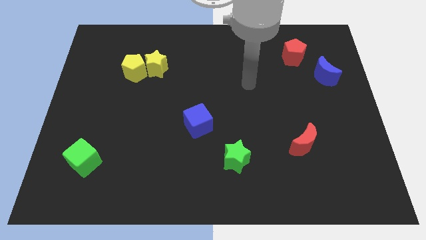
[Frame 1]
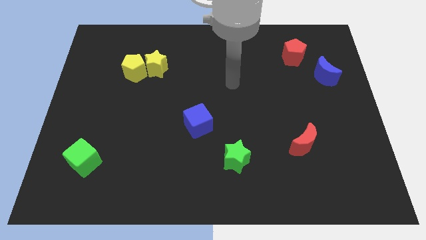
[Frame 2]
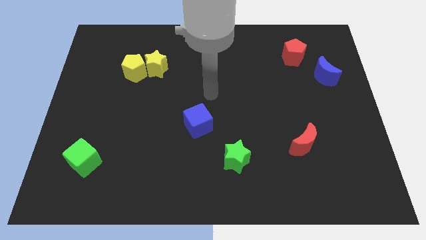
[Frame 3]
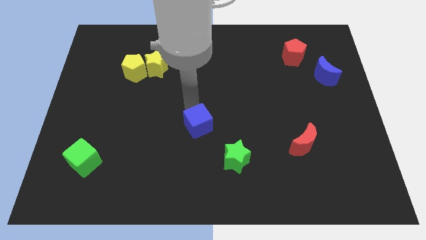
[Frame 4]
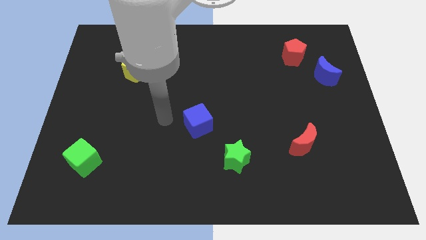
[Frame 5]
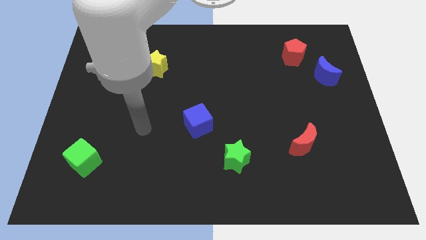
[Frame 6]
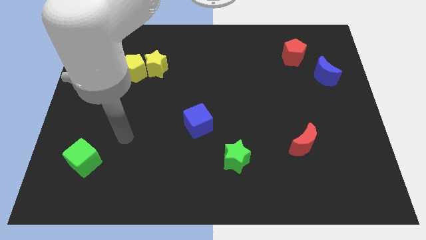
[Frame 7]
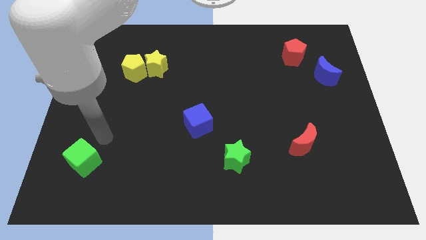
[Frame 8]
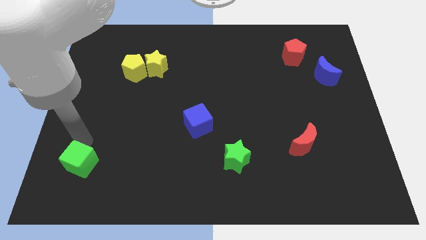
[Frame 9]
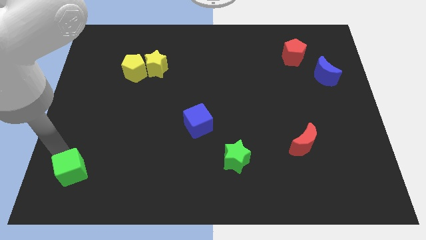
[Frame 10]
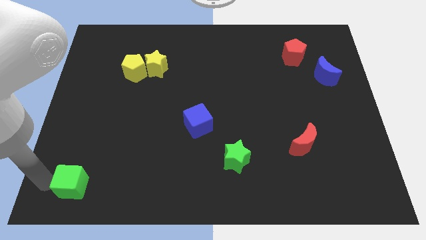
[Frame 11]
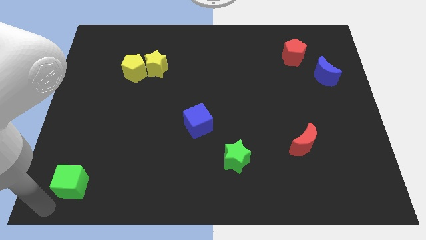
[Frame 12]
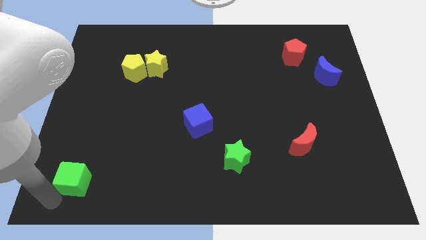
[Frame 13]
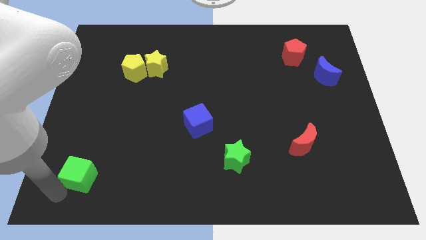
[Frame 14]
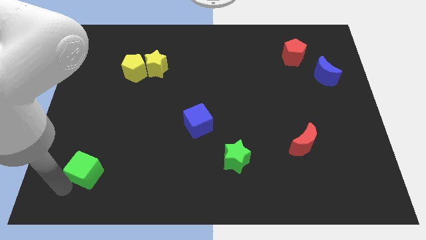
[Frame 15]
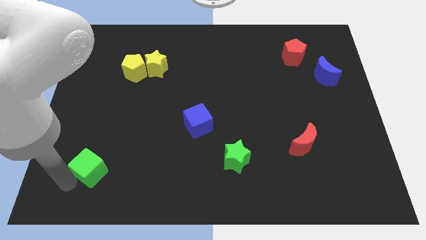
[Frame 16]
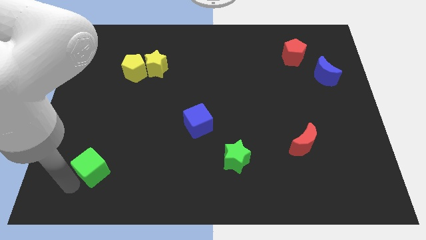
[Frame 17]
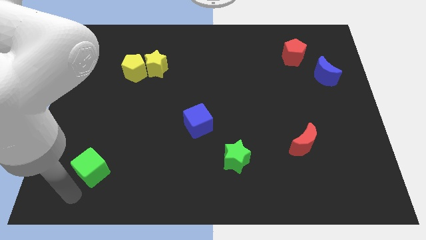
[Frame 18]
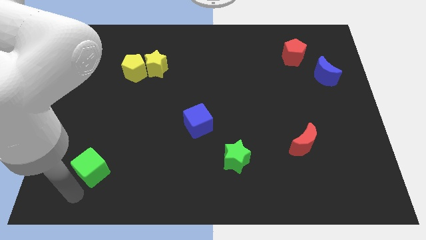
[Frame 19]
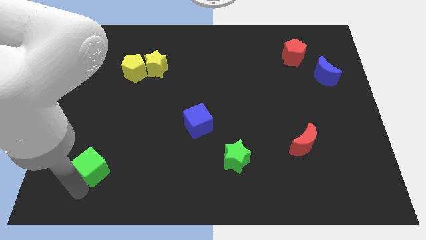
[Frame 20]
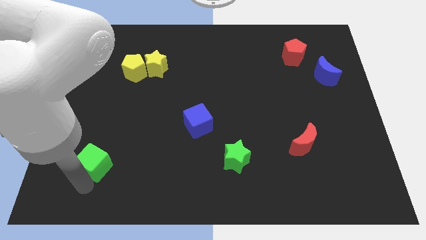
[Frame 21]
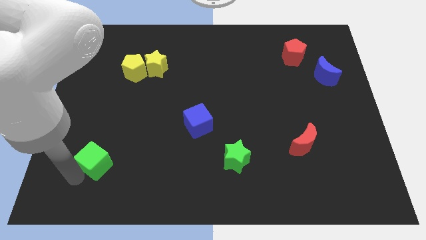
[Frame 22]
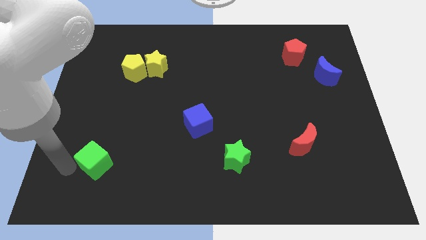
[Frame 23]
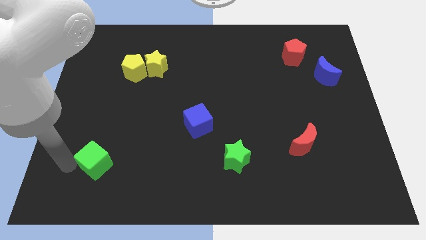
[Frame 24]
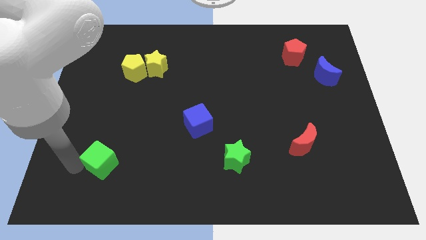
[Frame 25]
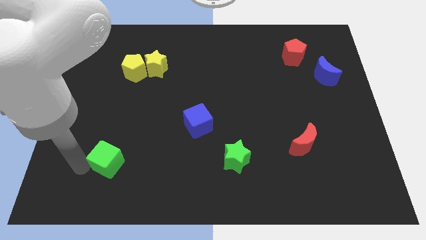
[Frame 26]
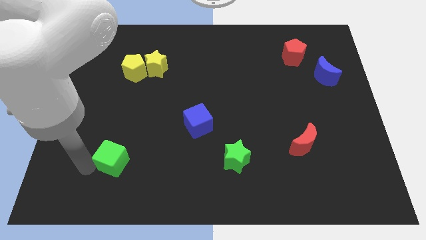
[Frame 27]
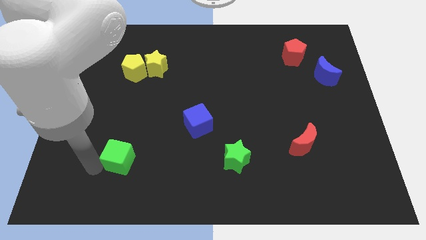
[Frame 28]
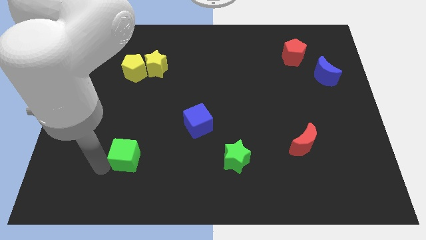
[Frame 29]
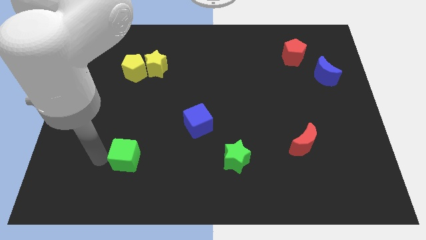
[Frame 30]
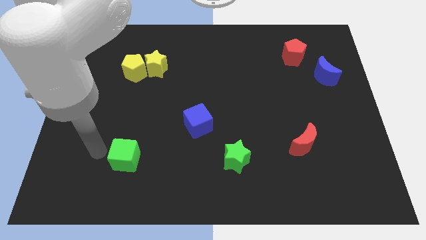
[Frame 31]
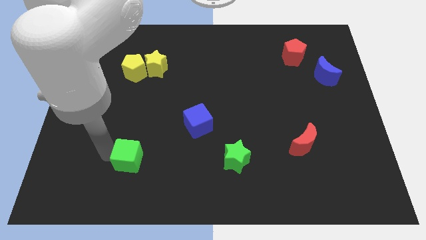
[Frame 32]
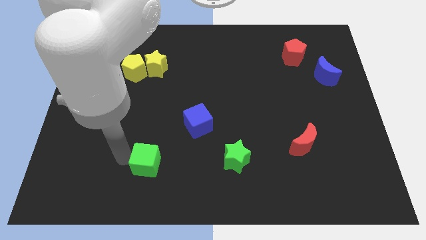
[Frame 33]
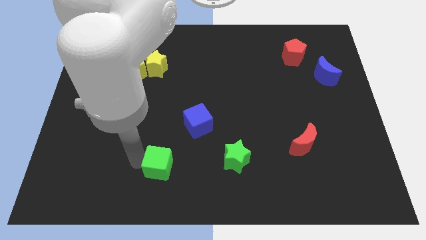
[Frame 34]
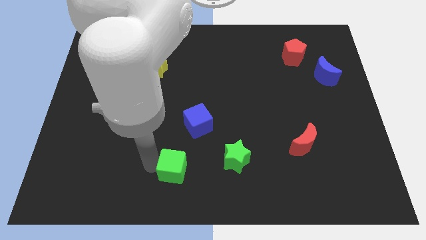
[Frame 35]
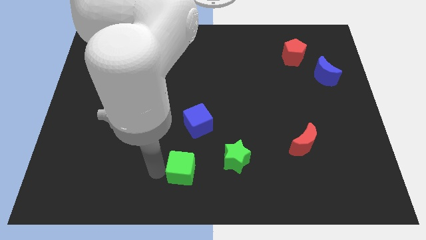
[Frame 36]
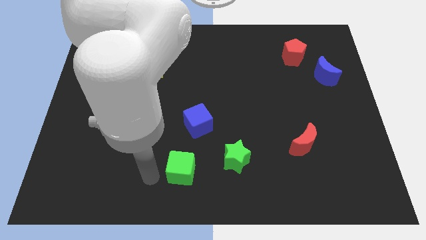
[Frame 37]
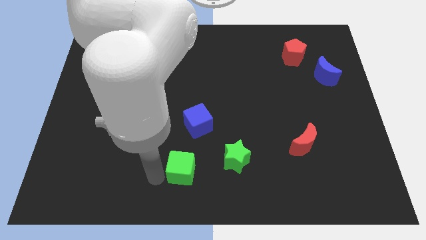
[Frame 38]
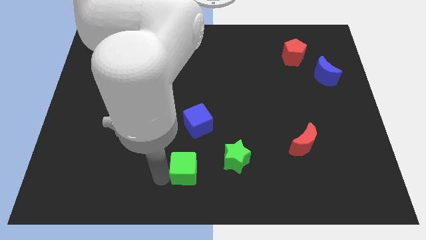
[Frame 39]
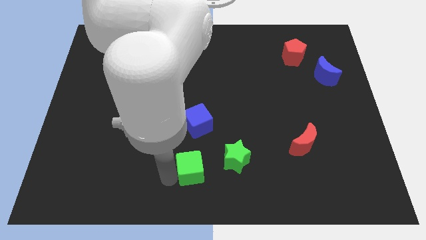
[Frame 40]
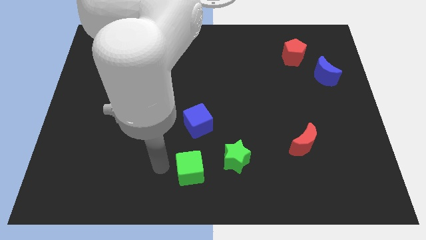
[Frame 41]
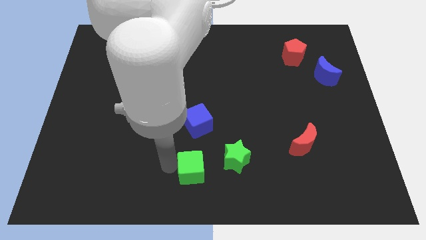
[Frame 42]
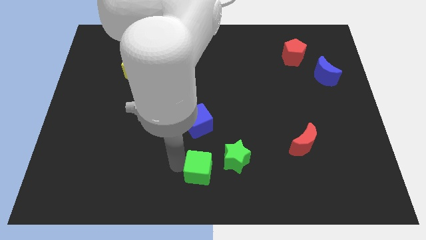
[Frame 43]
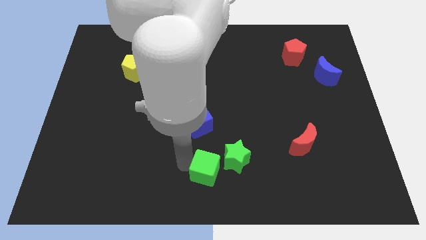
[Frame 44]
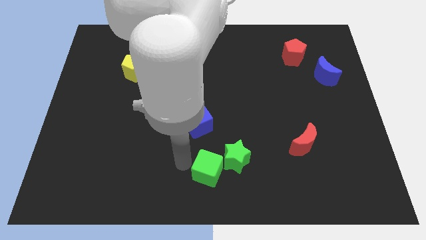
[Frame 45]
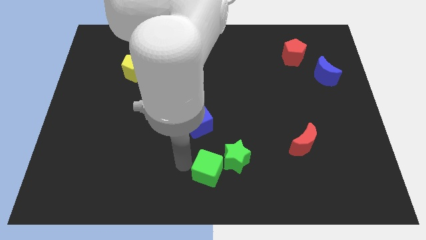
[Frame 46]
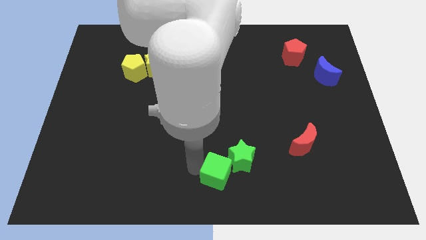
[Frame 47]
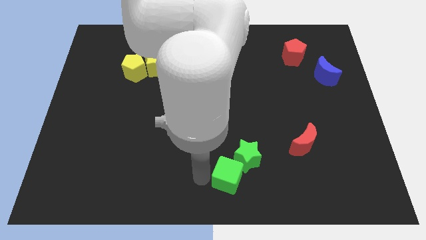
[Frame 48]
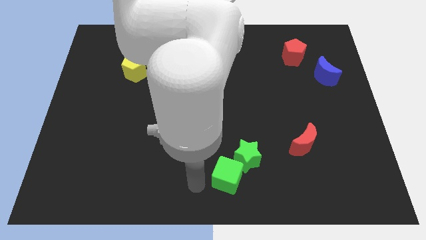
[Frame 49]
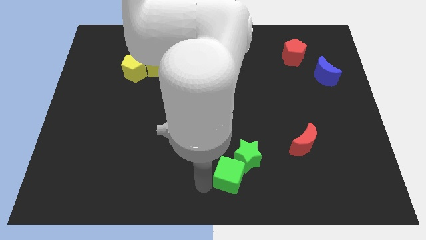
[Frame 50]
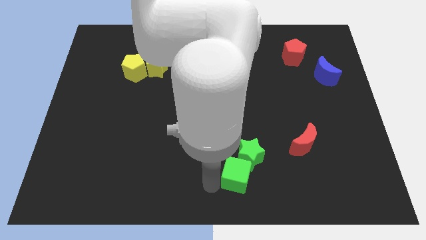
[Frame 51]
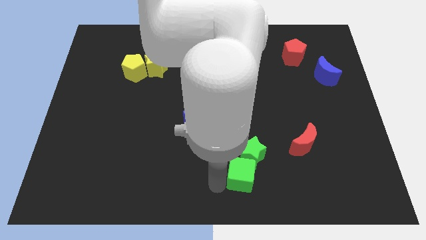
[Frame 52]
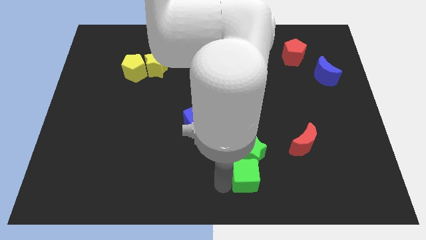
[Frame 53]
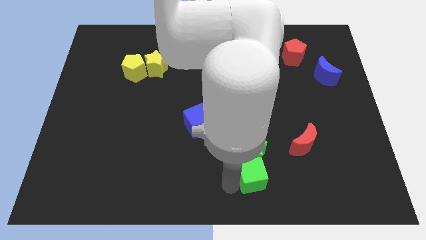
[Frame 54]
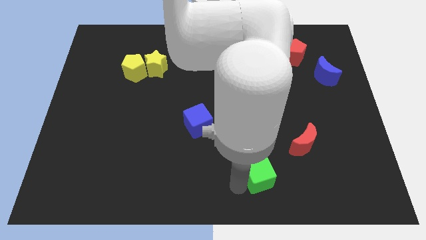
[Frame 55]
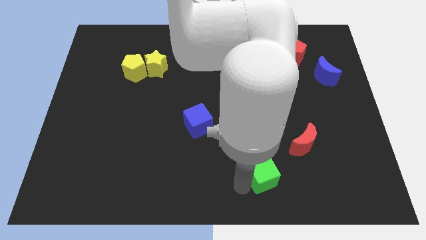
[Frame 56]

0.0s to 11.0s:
push the green cube diagonally down and to the left of the red moon

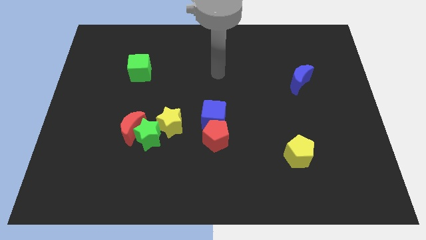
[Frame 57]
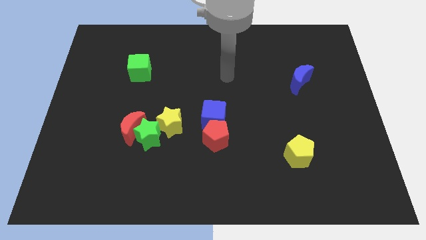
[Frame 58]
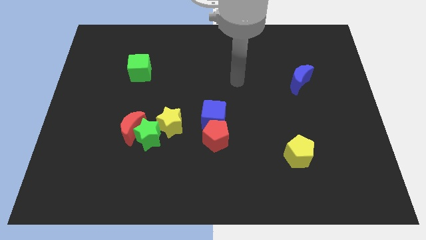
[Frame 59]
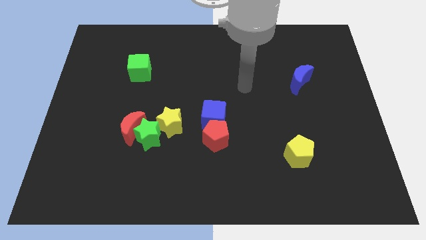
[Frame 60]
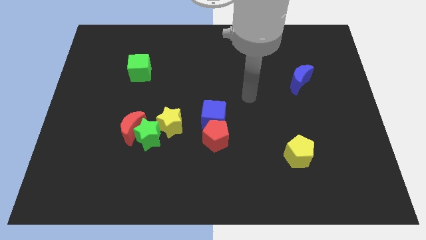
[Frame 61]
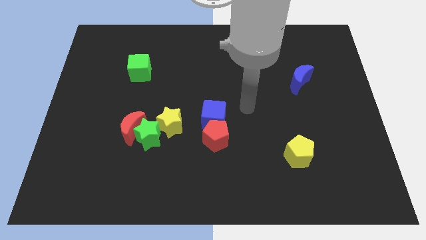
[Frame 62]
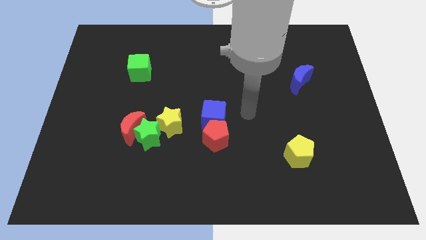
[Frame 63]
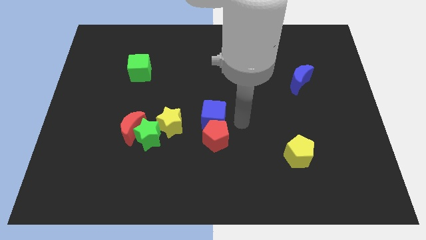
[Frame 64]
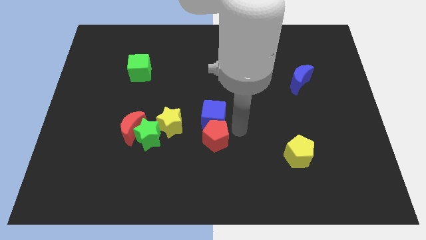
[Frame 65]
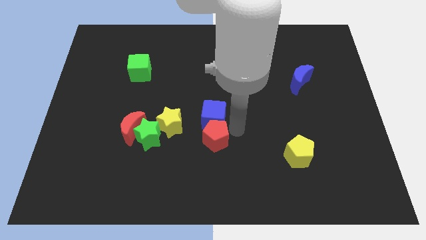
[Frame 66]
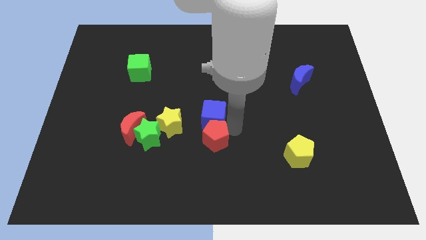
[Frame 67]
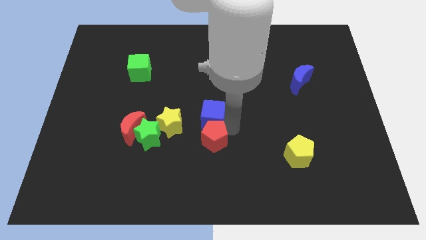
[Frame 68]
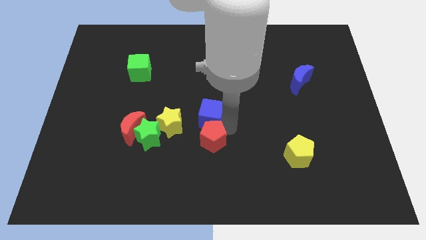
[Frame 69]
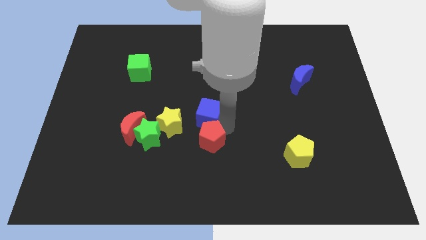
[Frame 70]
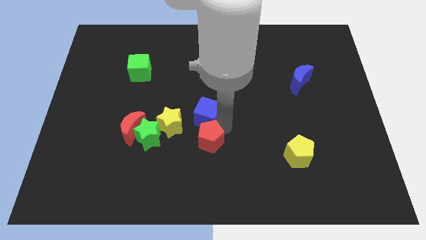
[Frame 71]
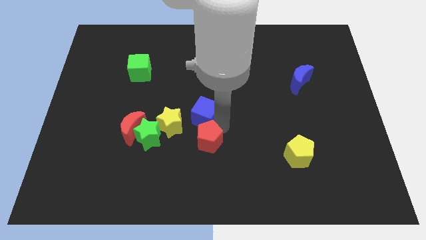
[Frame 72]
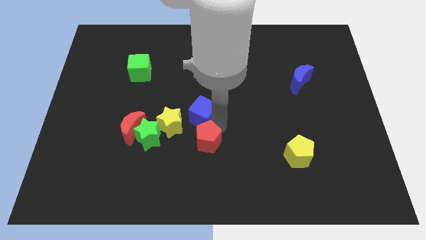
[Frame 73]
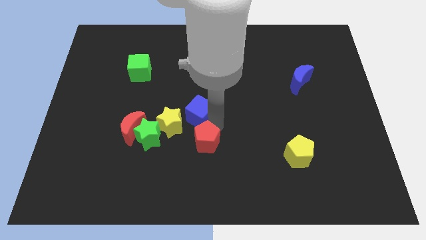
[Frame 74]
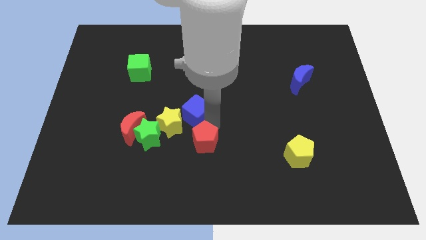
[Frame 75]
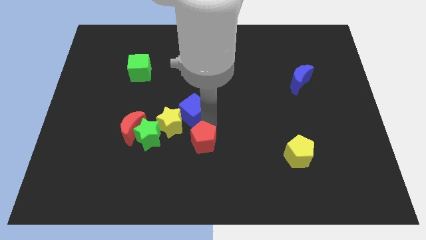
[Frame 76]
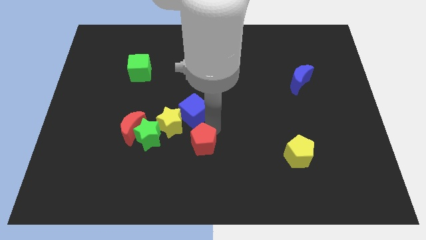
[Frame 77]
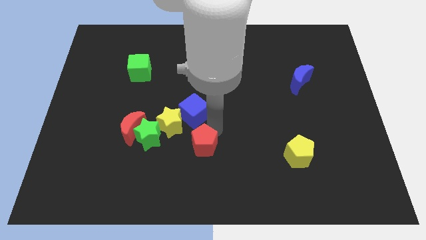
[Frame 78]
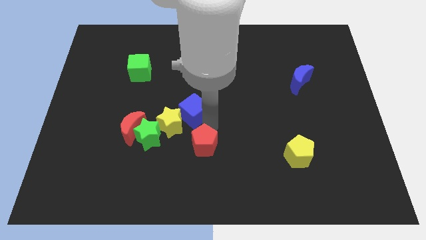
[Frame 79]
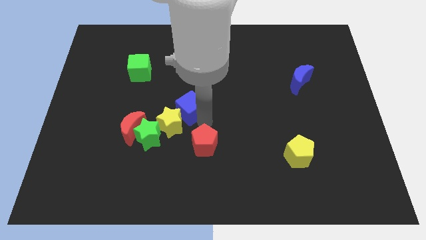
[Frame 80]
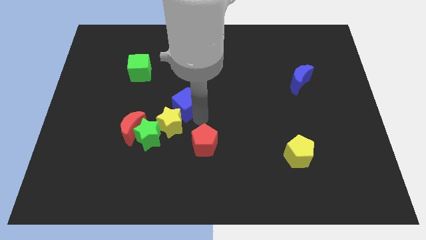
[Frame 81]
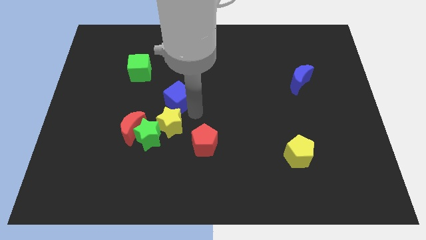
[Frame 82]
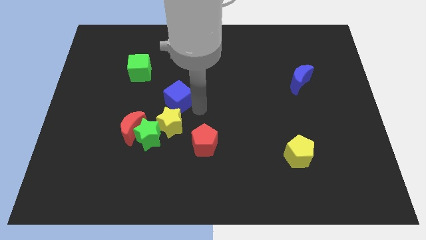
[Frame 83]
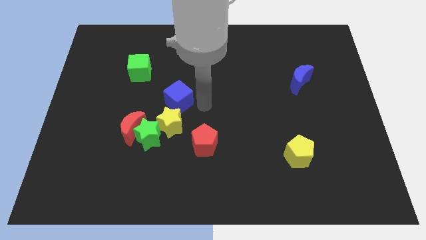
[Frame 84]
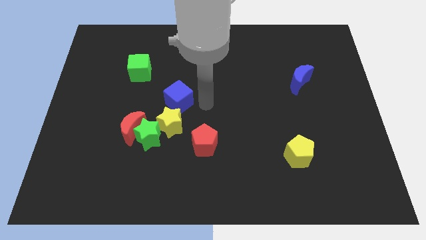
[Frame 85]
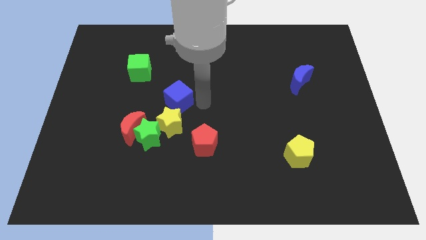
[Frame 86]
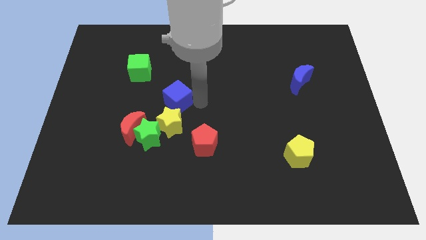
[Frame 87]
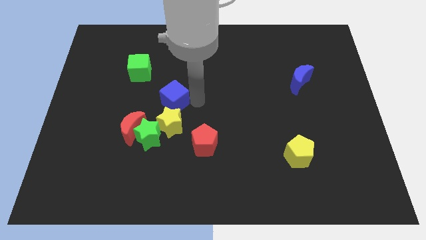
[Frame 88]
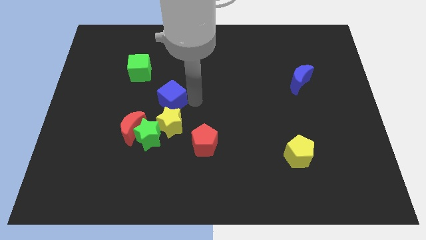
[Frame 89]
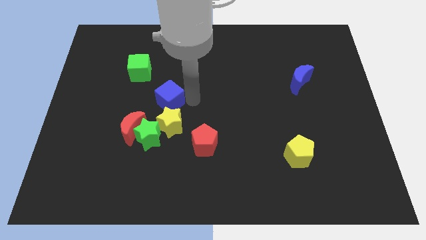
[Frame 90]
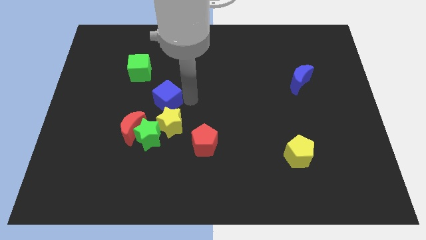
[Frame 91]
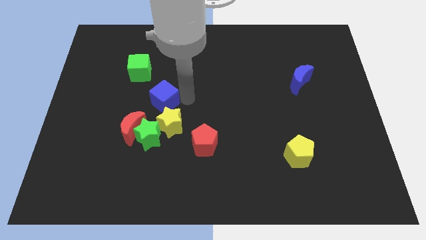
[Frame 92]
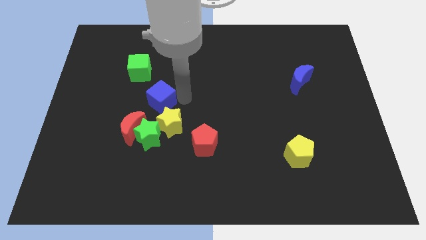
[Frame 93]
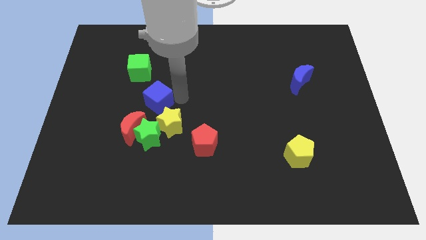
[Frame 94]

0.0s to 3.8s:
slide the blue cube to the top of the red moon
